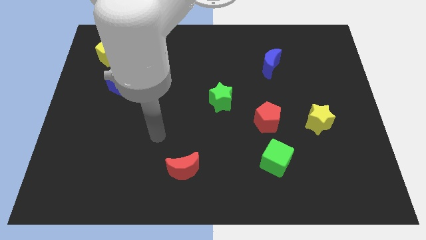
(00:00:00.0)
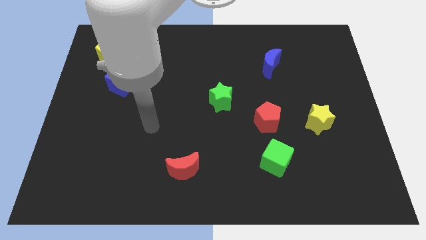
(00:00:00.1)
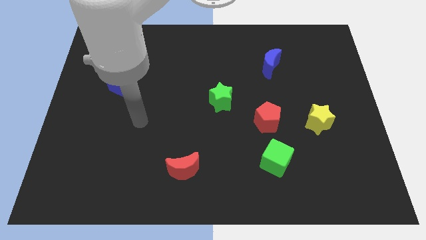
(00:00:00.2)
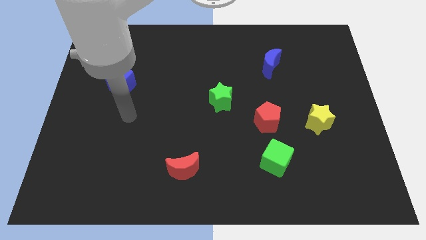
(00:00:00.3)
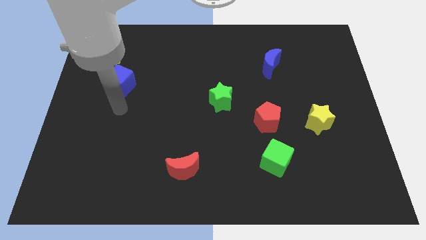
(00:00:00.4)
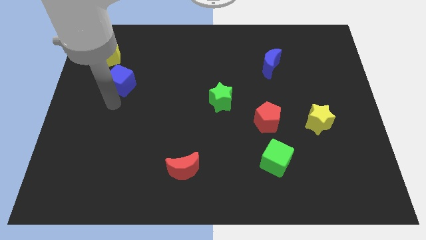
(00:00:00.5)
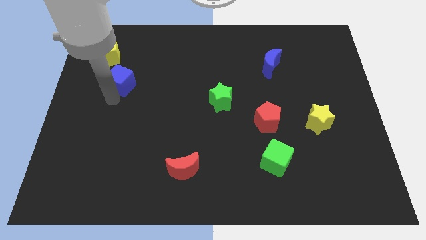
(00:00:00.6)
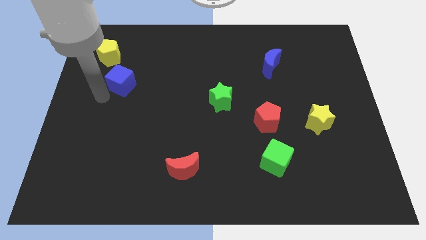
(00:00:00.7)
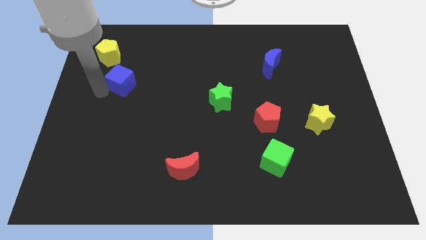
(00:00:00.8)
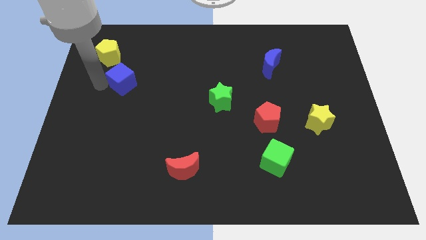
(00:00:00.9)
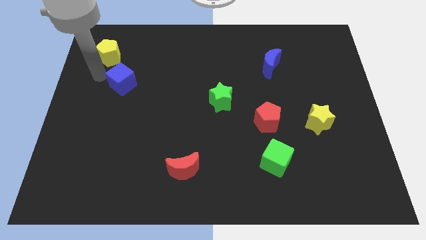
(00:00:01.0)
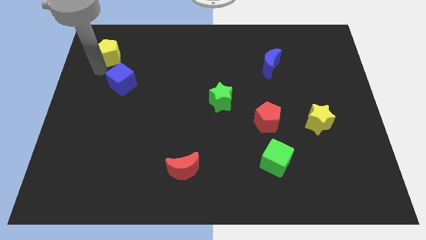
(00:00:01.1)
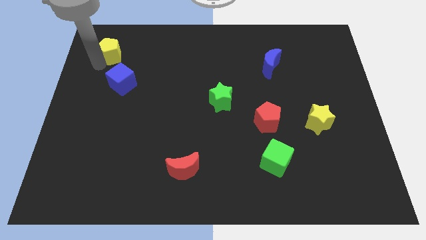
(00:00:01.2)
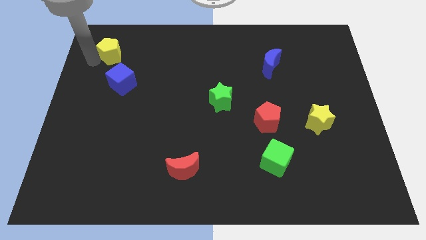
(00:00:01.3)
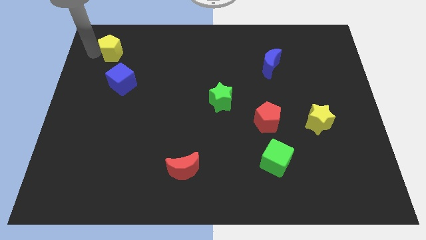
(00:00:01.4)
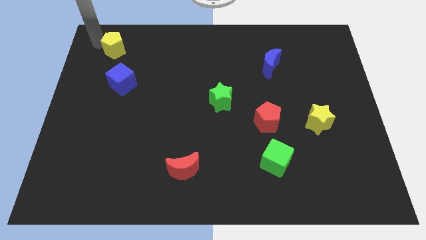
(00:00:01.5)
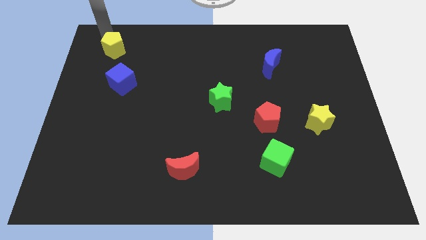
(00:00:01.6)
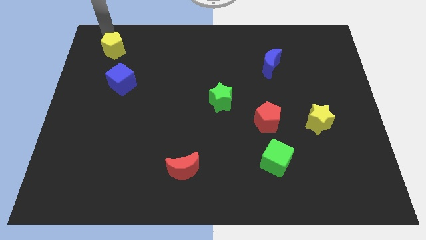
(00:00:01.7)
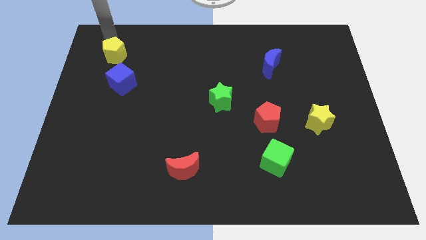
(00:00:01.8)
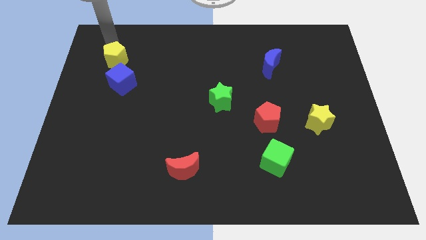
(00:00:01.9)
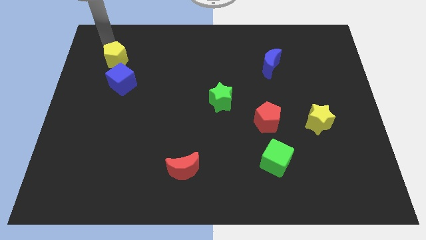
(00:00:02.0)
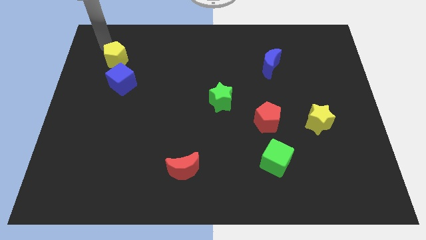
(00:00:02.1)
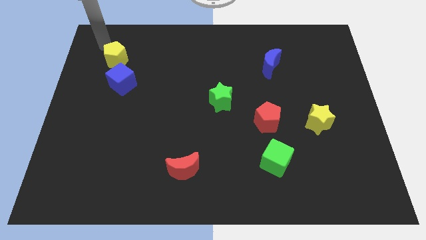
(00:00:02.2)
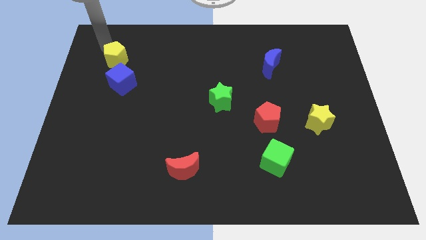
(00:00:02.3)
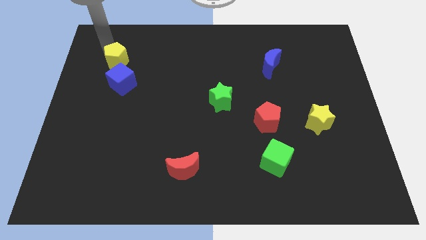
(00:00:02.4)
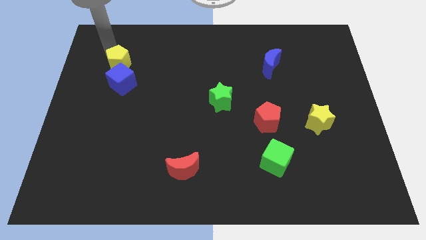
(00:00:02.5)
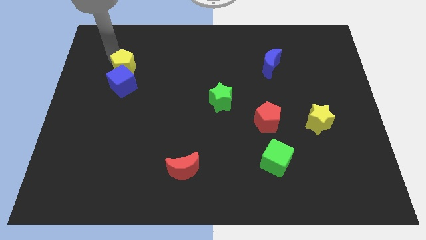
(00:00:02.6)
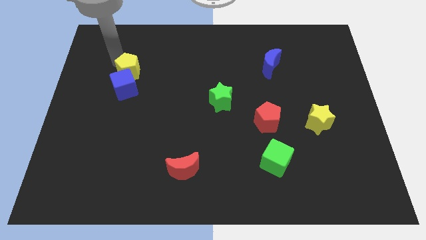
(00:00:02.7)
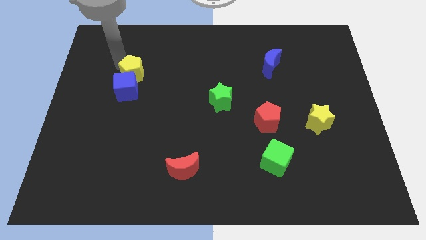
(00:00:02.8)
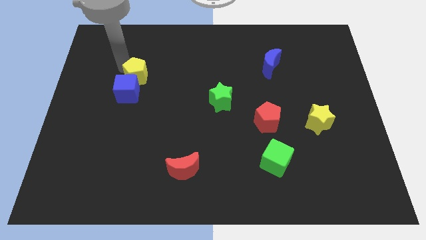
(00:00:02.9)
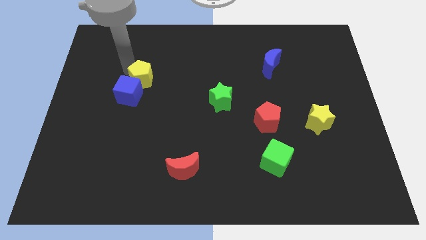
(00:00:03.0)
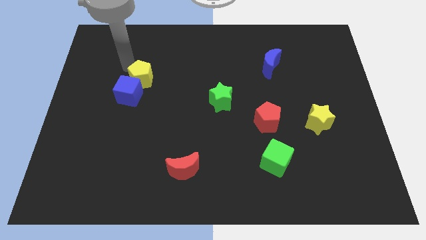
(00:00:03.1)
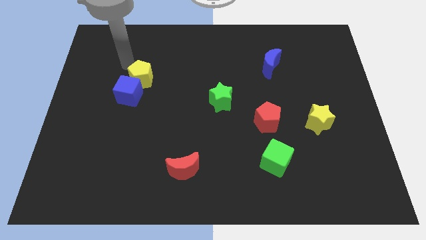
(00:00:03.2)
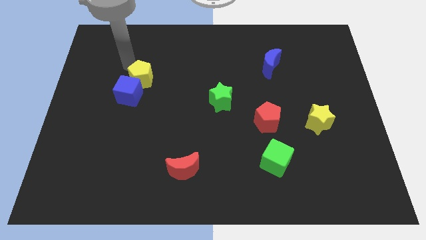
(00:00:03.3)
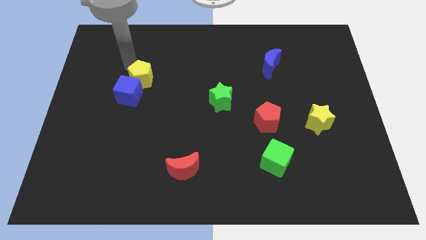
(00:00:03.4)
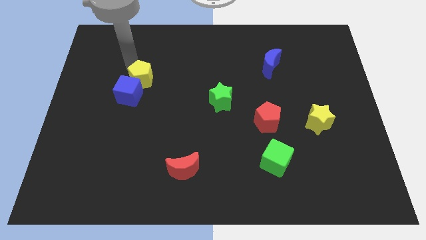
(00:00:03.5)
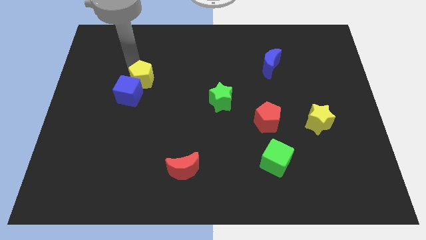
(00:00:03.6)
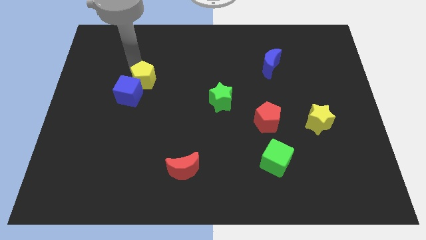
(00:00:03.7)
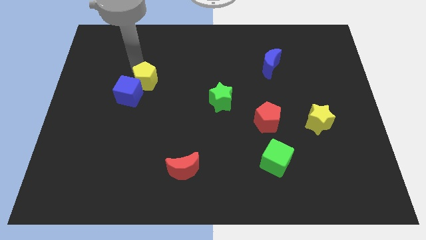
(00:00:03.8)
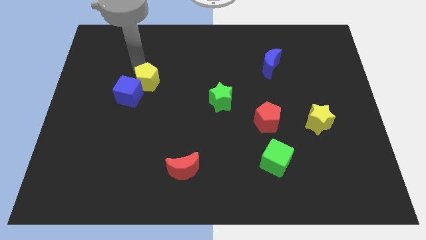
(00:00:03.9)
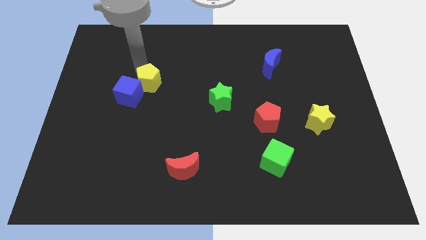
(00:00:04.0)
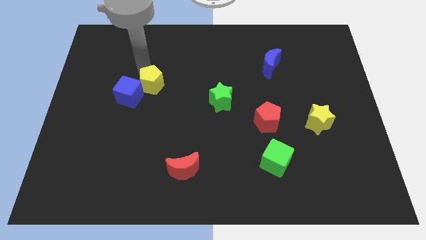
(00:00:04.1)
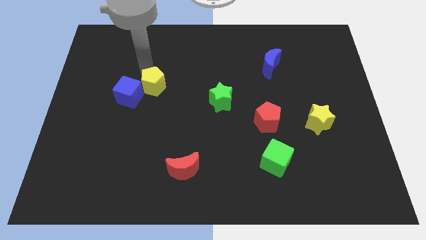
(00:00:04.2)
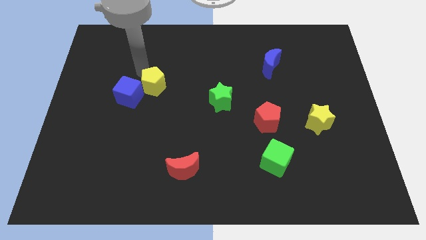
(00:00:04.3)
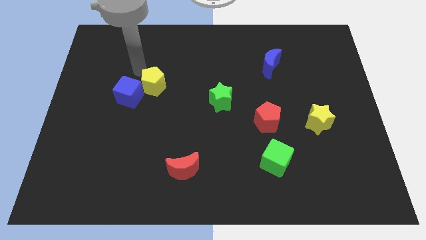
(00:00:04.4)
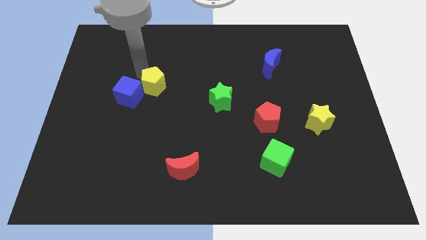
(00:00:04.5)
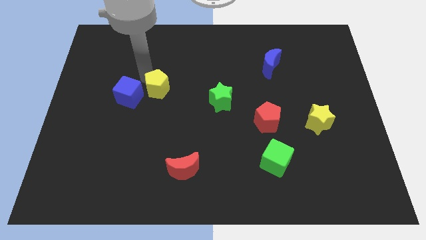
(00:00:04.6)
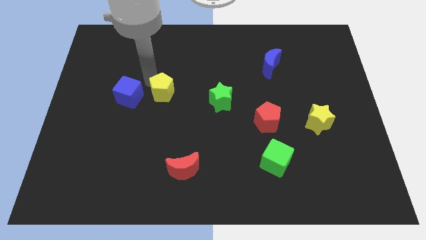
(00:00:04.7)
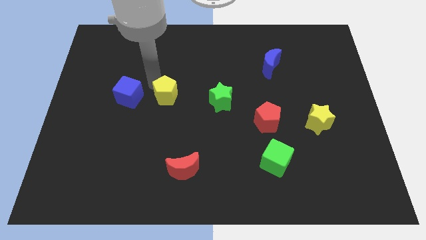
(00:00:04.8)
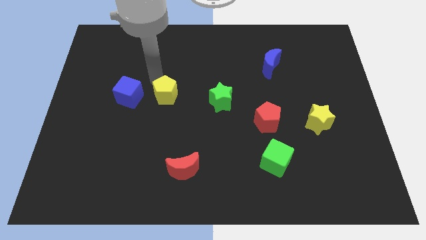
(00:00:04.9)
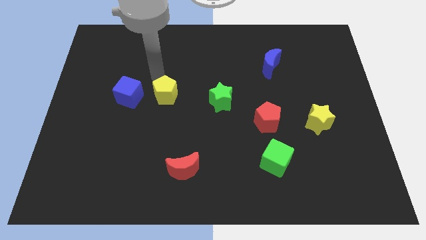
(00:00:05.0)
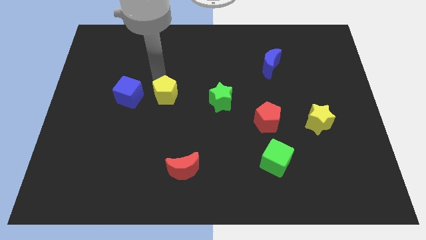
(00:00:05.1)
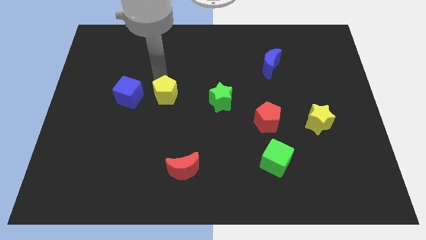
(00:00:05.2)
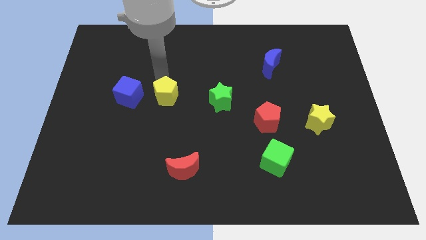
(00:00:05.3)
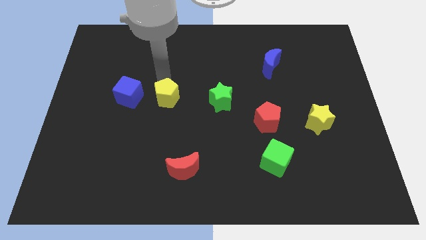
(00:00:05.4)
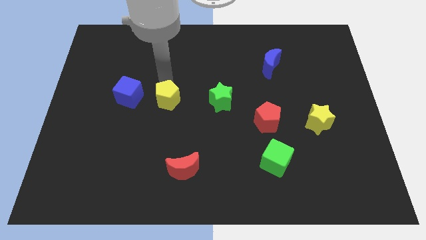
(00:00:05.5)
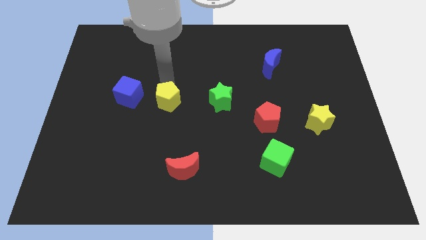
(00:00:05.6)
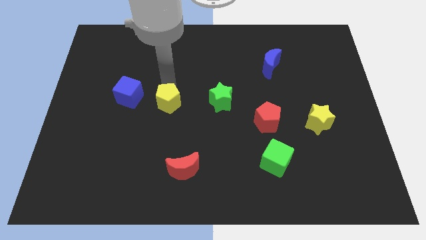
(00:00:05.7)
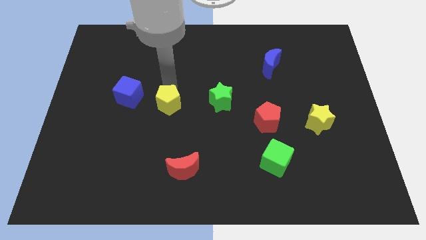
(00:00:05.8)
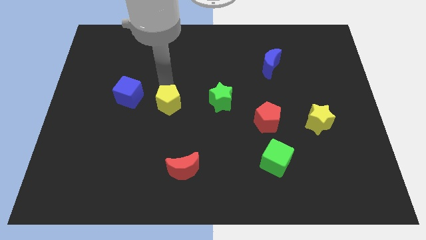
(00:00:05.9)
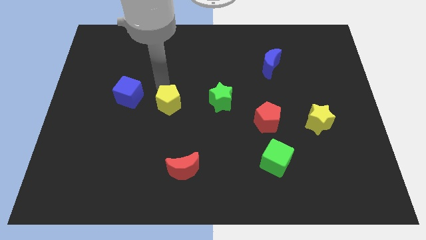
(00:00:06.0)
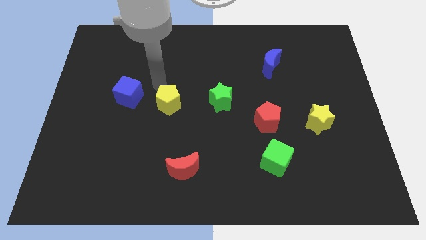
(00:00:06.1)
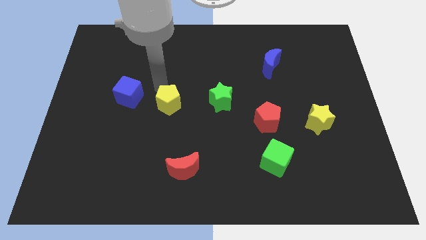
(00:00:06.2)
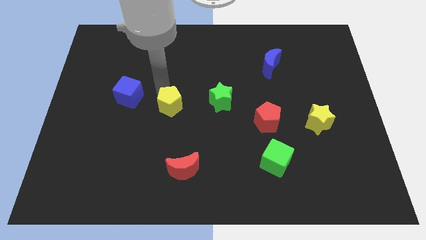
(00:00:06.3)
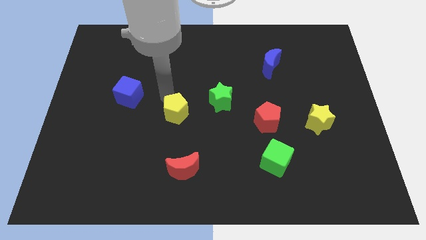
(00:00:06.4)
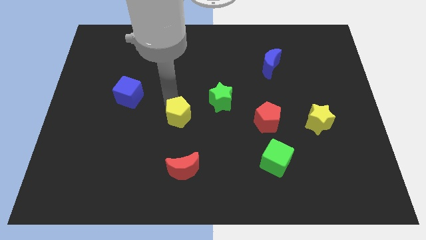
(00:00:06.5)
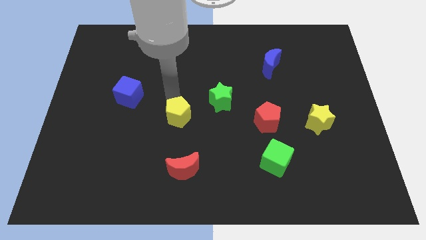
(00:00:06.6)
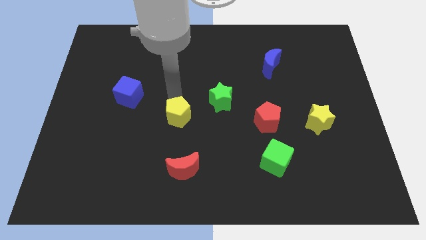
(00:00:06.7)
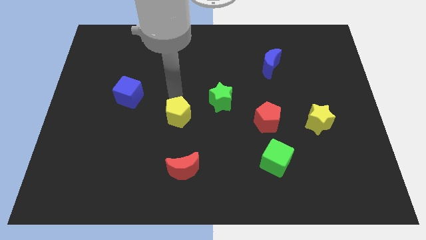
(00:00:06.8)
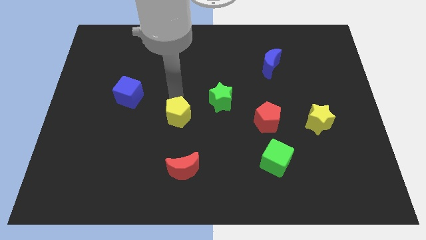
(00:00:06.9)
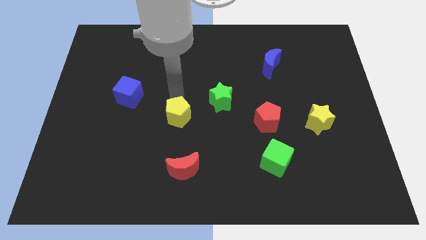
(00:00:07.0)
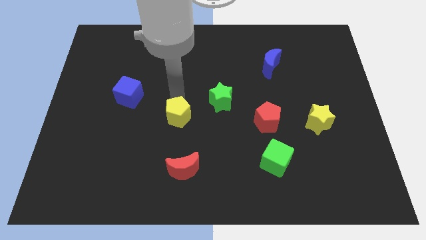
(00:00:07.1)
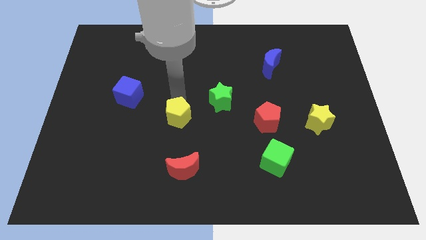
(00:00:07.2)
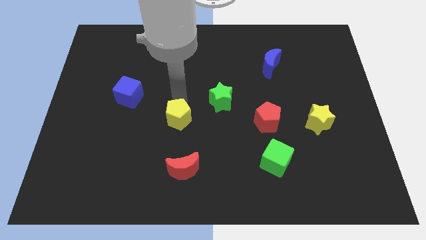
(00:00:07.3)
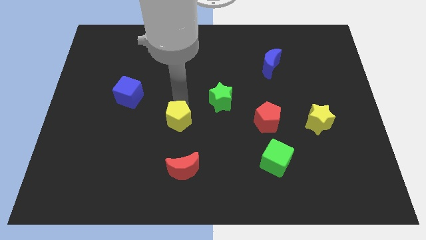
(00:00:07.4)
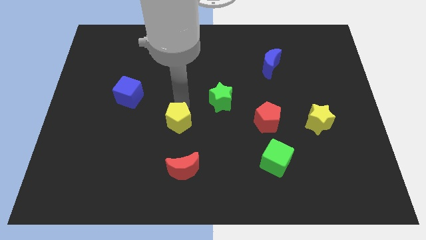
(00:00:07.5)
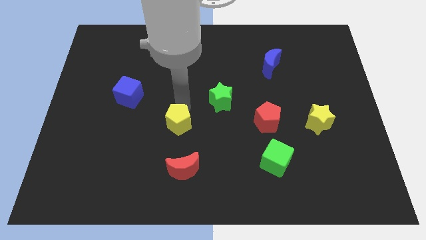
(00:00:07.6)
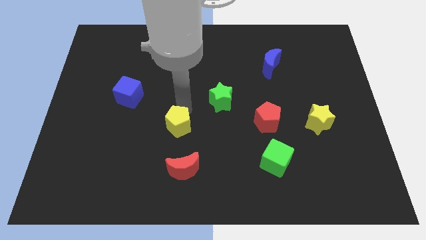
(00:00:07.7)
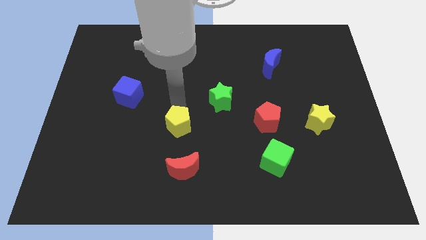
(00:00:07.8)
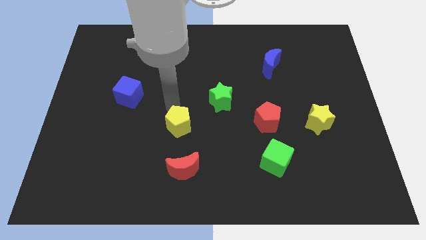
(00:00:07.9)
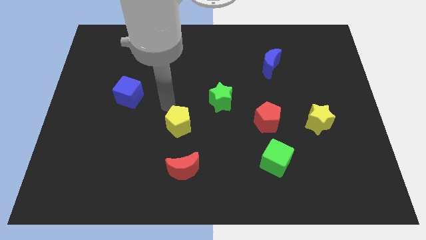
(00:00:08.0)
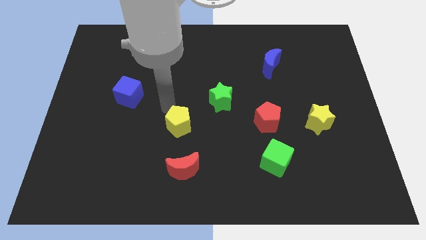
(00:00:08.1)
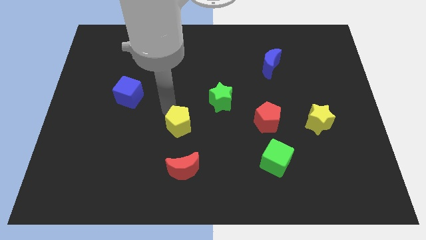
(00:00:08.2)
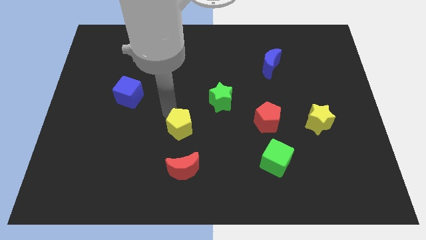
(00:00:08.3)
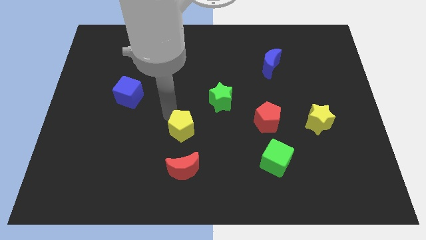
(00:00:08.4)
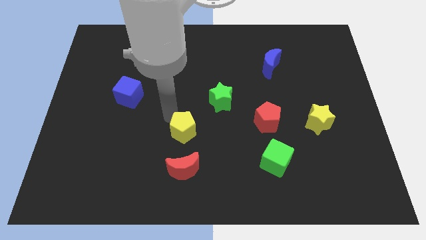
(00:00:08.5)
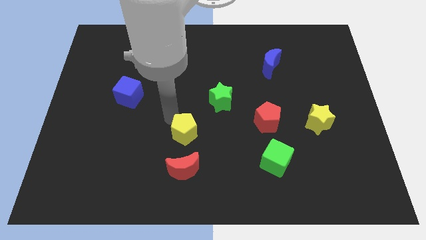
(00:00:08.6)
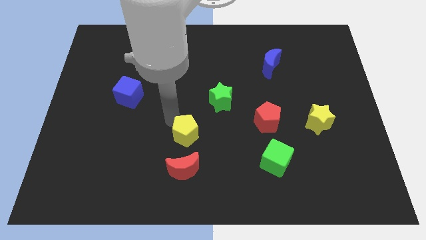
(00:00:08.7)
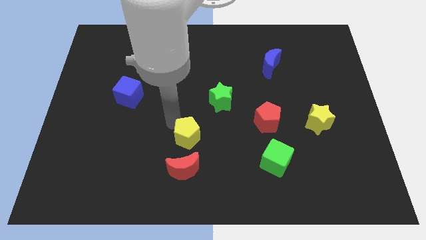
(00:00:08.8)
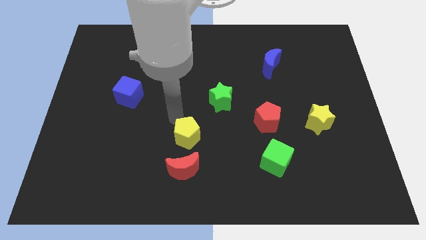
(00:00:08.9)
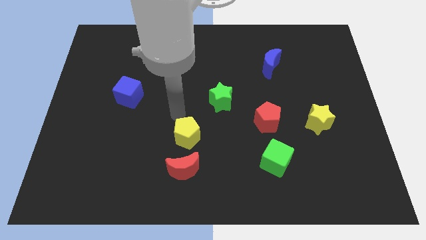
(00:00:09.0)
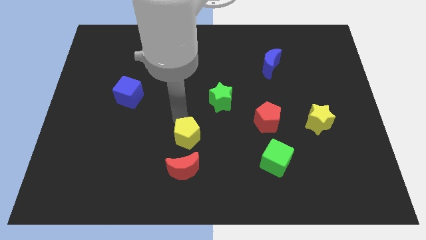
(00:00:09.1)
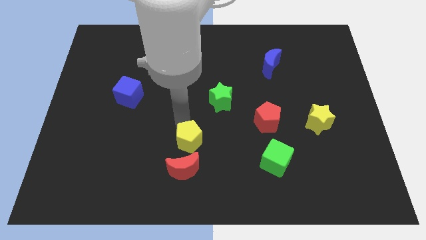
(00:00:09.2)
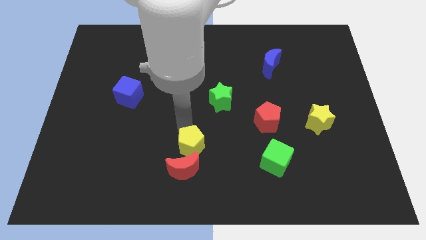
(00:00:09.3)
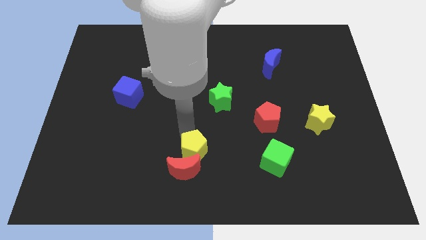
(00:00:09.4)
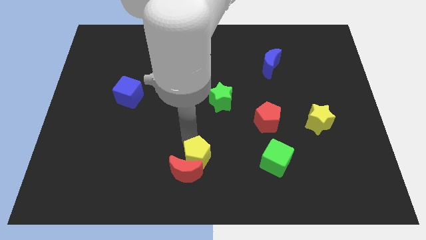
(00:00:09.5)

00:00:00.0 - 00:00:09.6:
put the yellow pentagon to the bottom side
